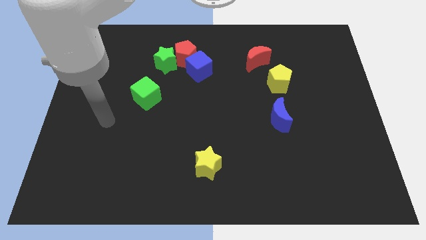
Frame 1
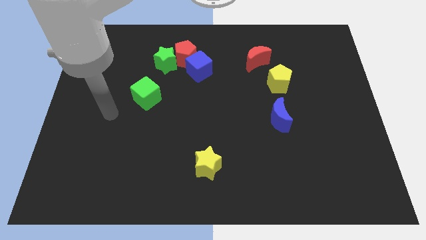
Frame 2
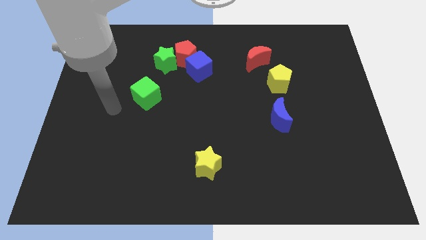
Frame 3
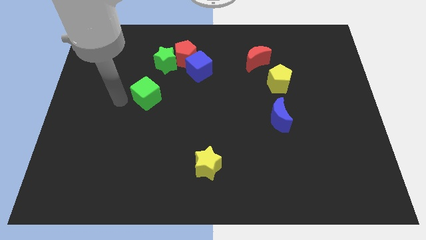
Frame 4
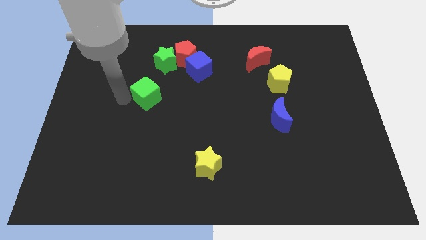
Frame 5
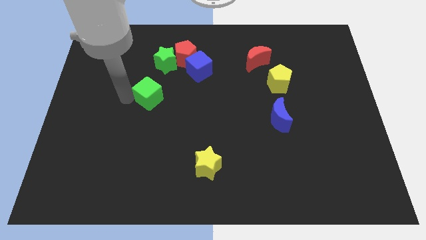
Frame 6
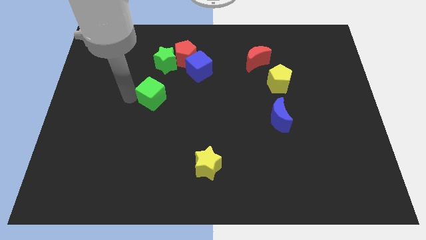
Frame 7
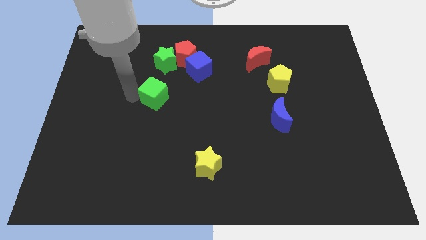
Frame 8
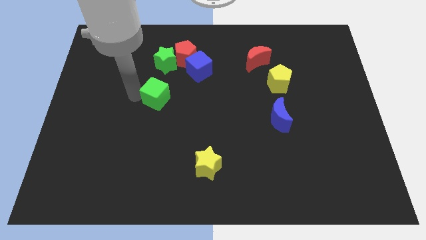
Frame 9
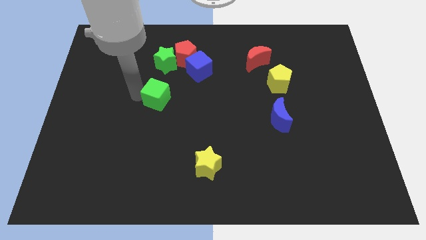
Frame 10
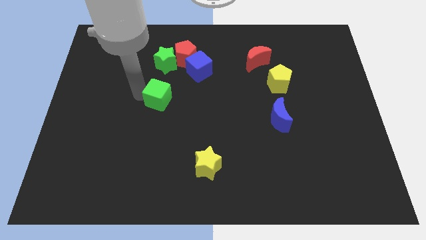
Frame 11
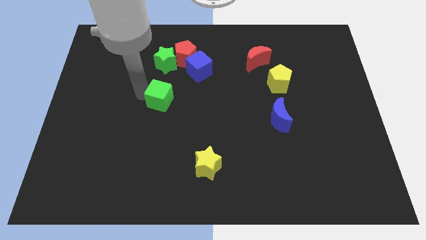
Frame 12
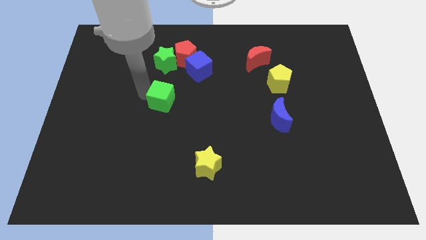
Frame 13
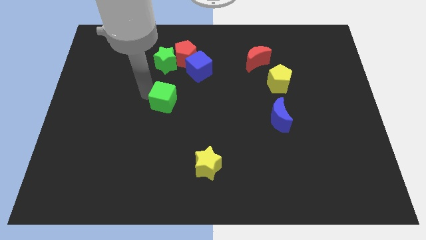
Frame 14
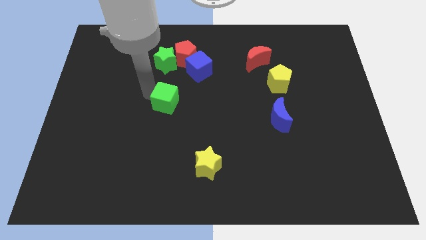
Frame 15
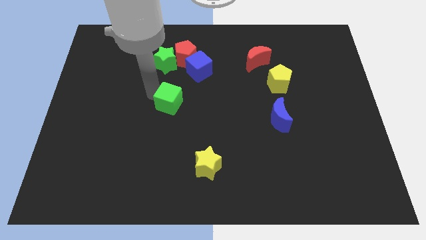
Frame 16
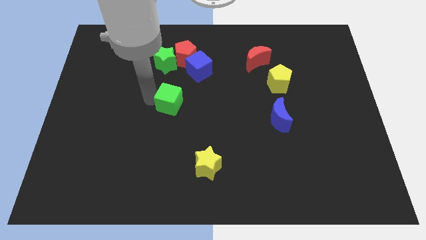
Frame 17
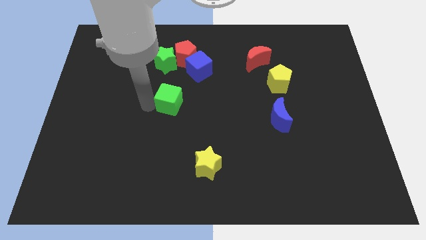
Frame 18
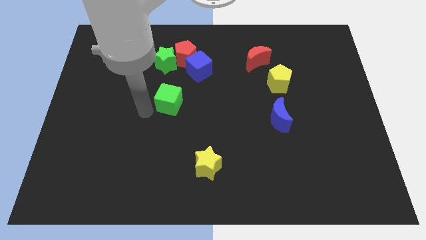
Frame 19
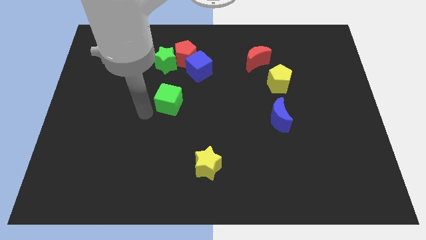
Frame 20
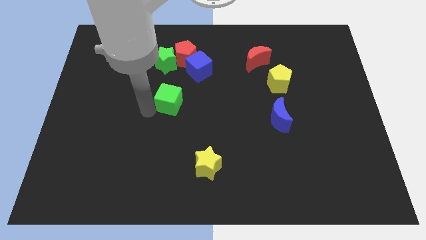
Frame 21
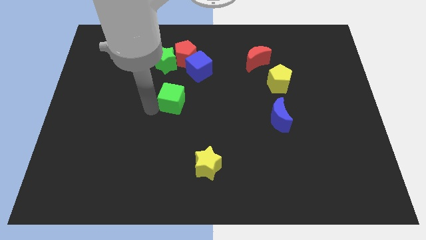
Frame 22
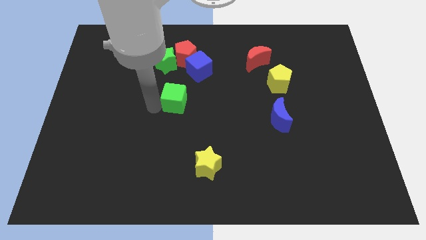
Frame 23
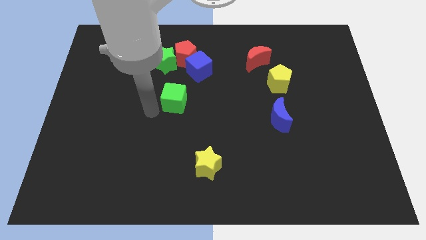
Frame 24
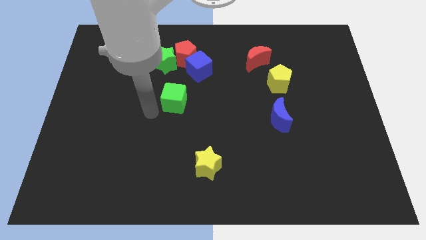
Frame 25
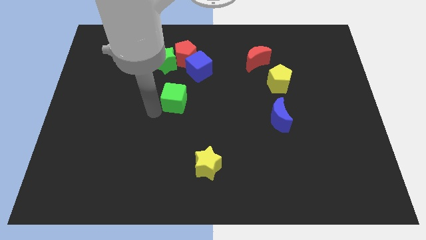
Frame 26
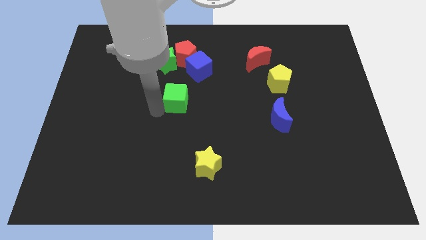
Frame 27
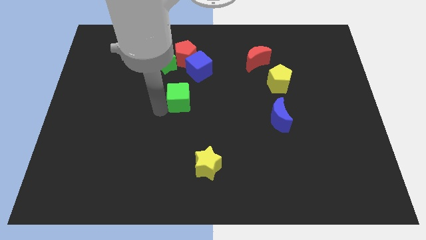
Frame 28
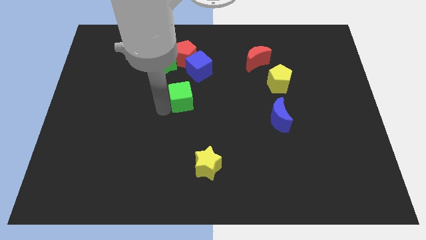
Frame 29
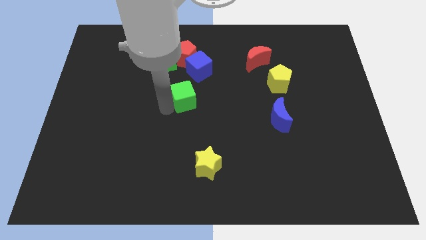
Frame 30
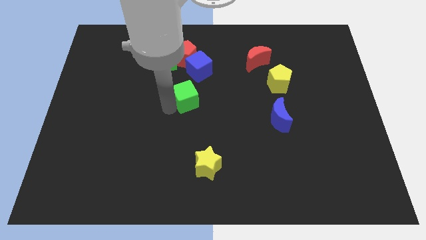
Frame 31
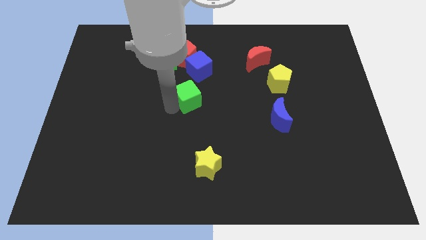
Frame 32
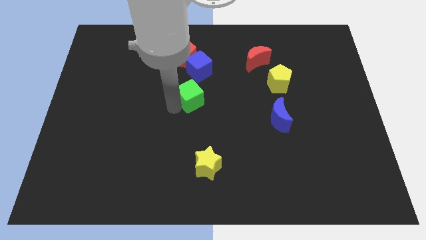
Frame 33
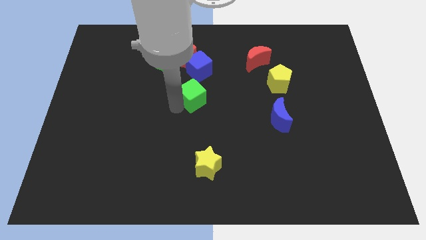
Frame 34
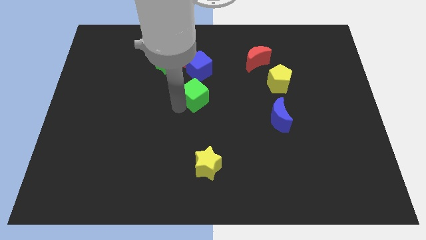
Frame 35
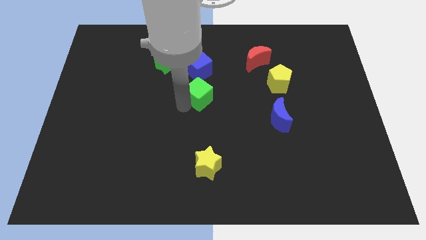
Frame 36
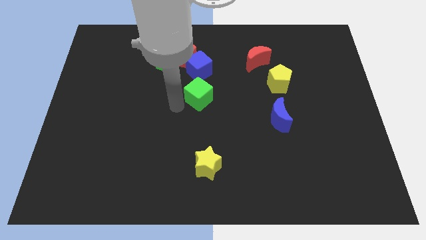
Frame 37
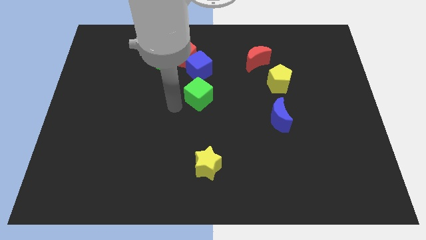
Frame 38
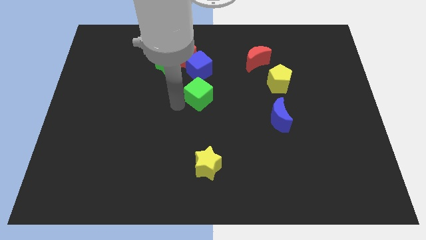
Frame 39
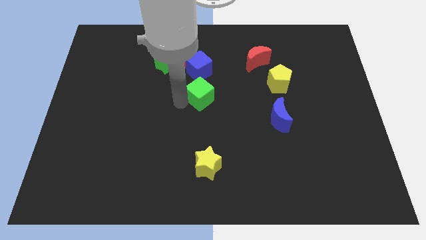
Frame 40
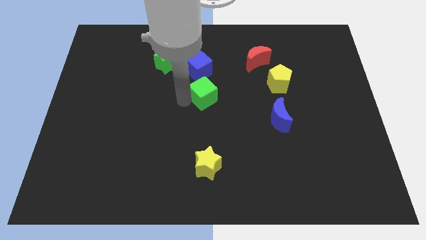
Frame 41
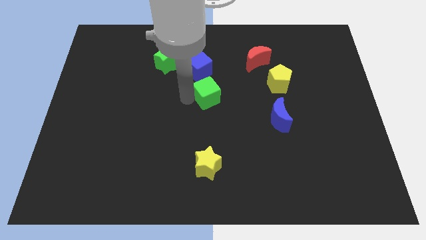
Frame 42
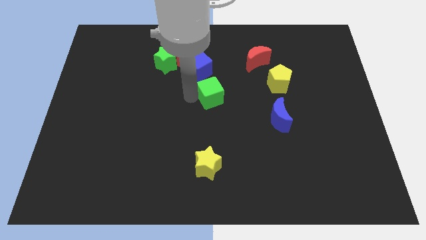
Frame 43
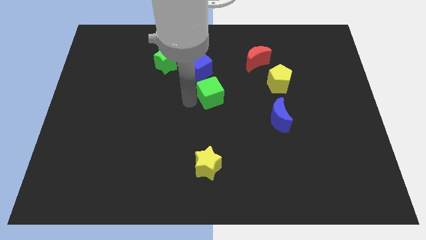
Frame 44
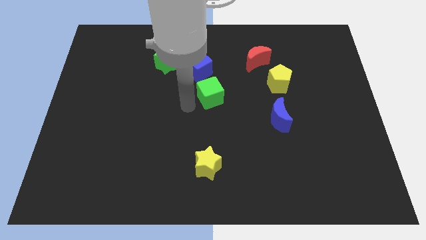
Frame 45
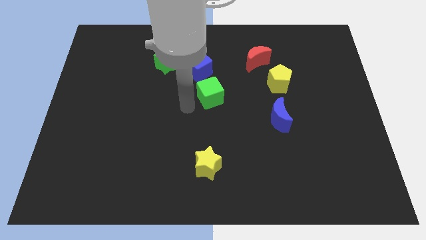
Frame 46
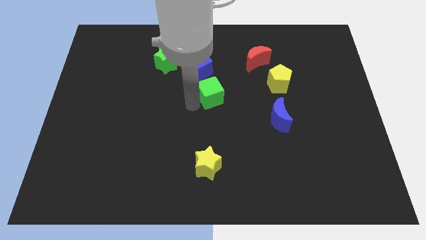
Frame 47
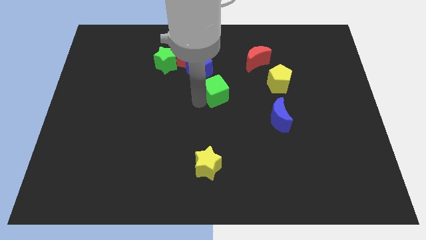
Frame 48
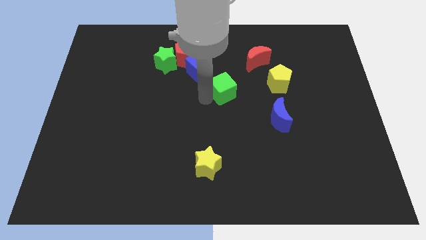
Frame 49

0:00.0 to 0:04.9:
move the green cube just left of the yellow pentagon

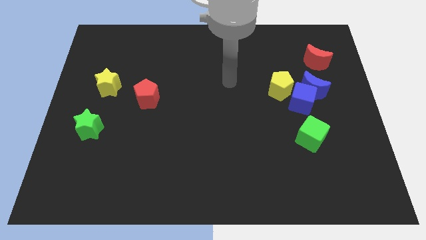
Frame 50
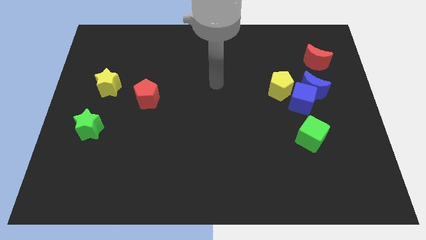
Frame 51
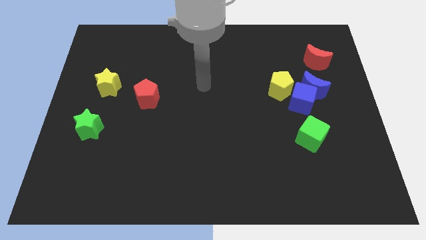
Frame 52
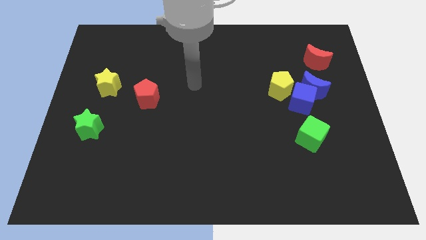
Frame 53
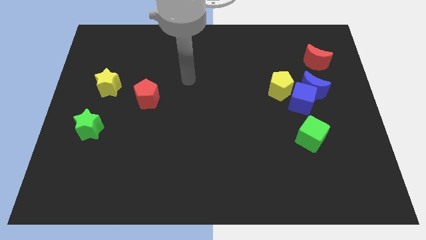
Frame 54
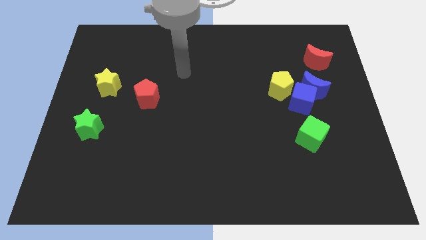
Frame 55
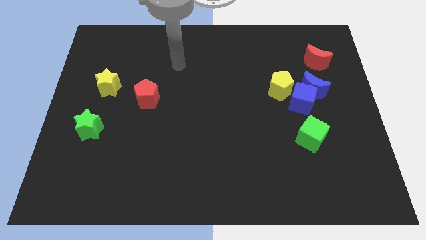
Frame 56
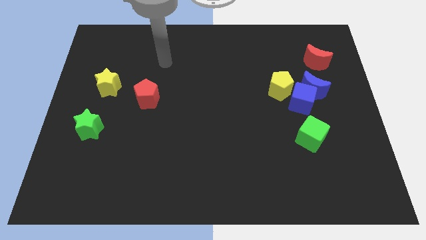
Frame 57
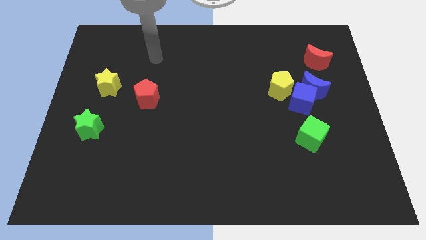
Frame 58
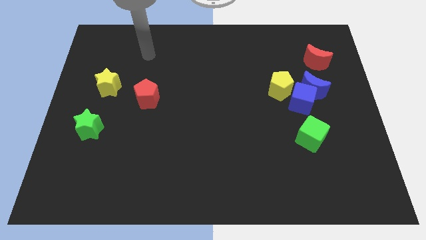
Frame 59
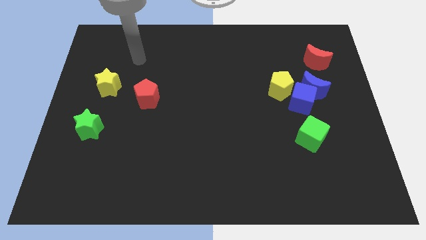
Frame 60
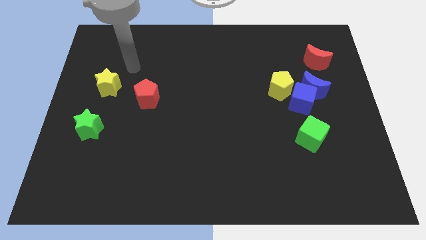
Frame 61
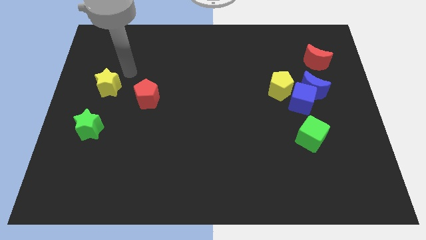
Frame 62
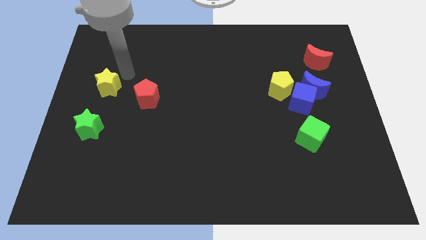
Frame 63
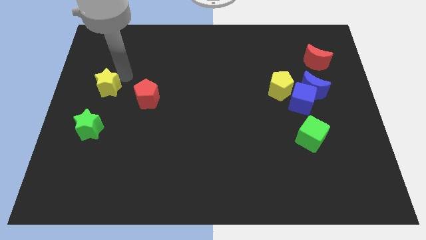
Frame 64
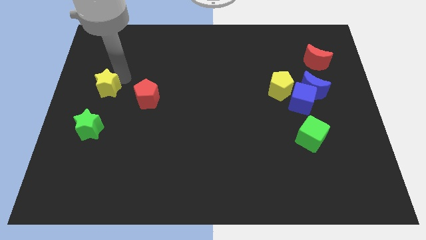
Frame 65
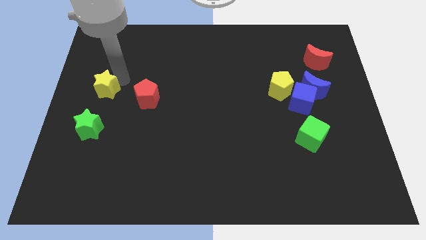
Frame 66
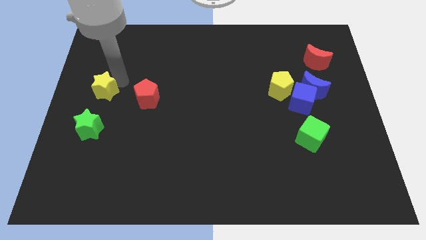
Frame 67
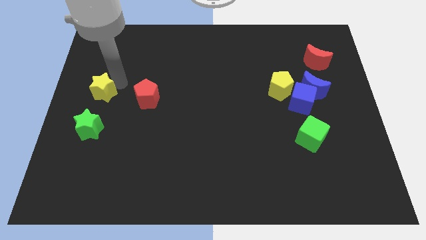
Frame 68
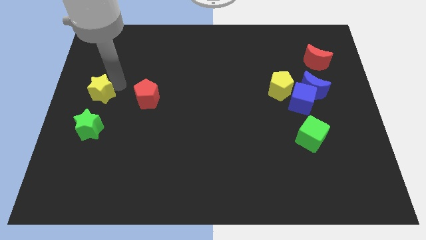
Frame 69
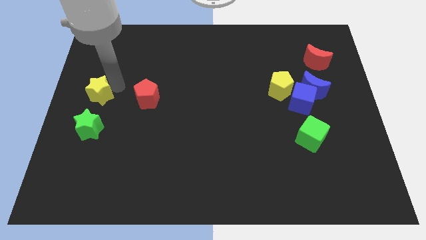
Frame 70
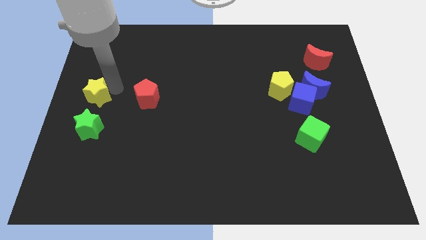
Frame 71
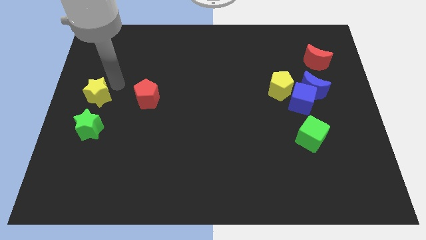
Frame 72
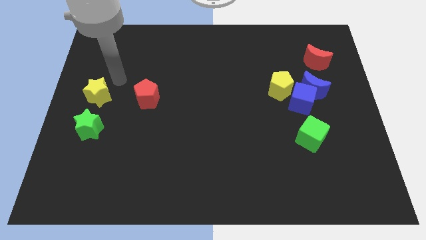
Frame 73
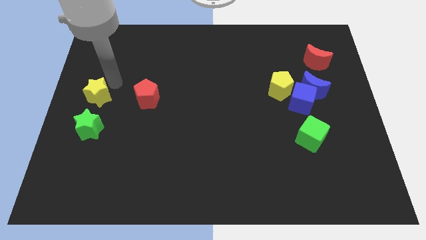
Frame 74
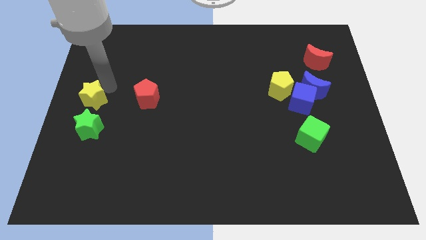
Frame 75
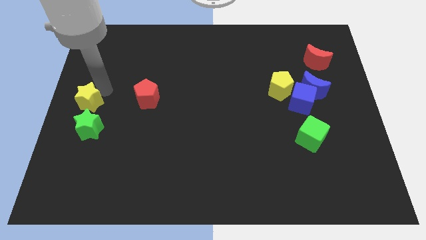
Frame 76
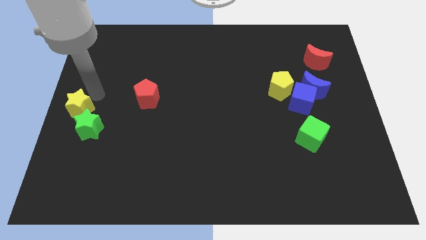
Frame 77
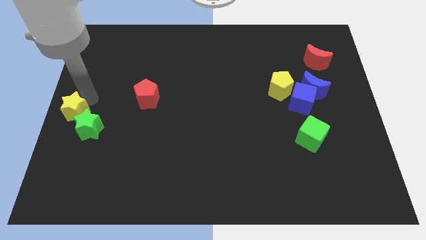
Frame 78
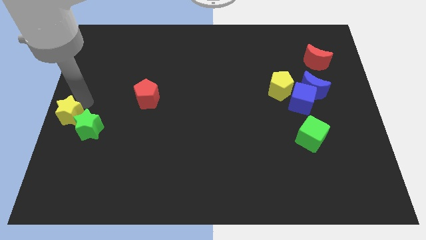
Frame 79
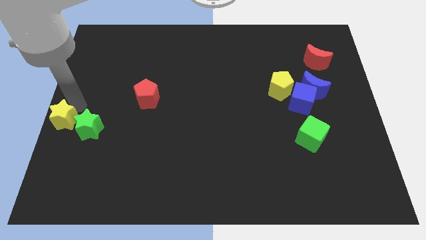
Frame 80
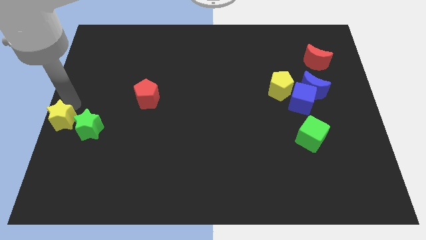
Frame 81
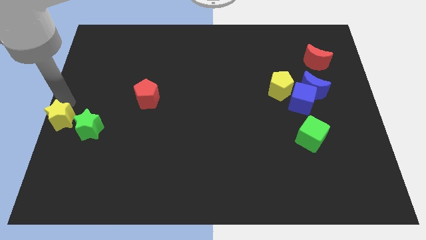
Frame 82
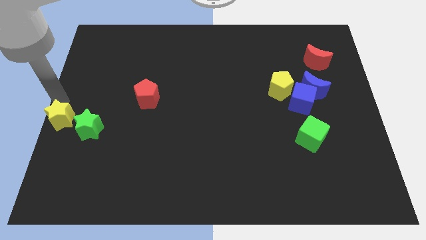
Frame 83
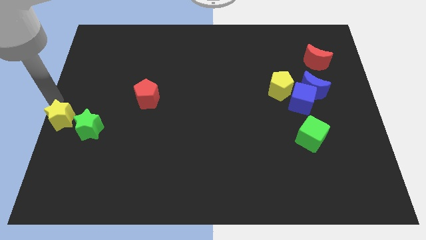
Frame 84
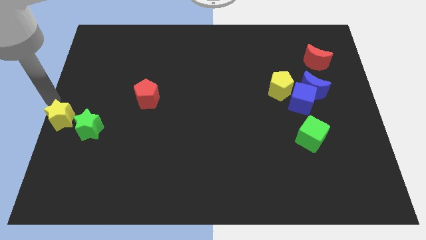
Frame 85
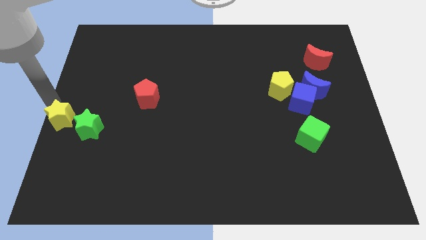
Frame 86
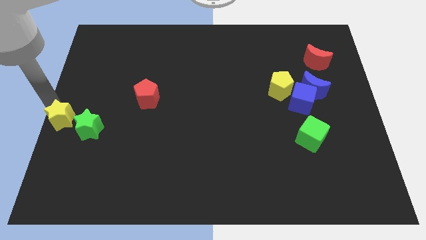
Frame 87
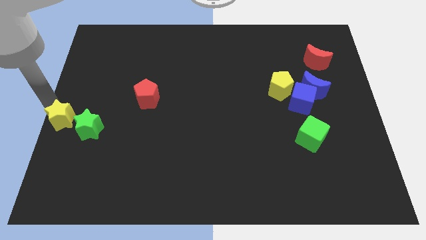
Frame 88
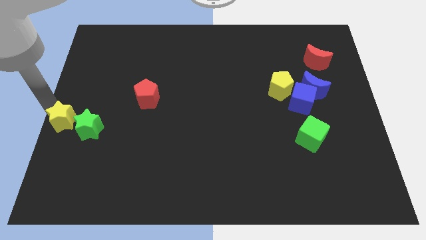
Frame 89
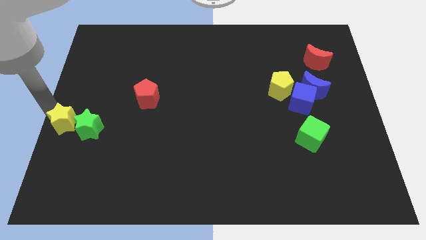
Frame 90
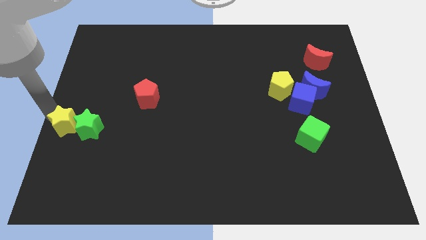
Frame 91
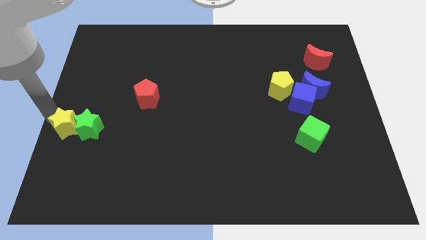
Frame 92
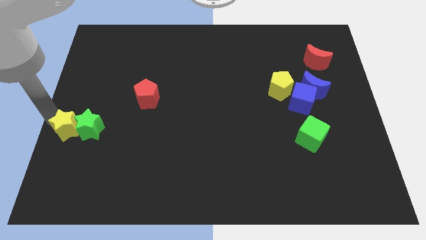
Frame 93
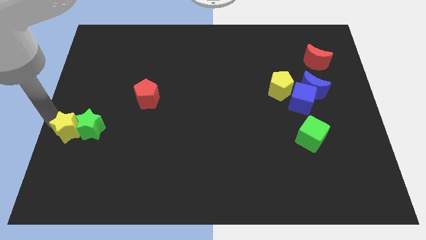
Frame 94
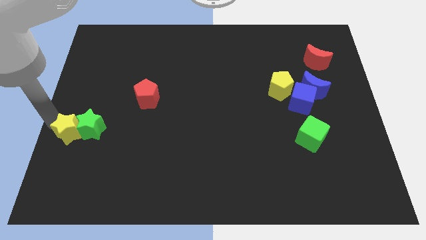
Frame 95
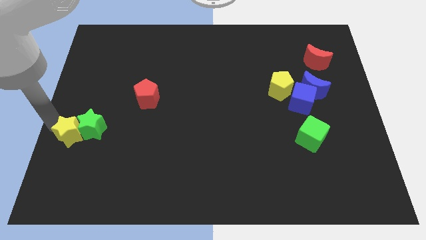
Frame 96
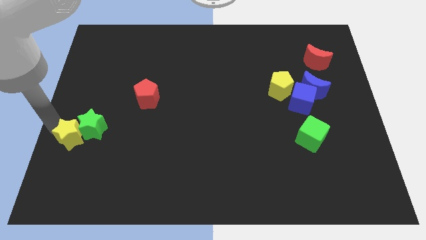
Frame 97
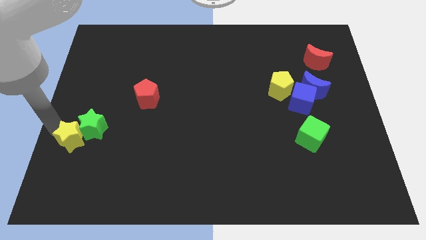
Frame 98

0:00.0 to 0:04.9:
slide the yellow star below the green star
